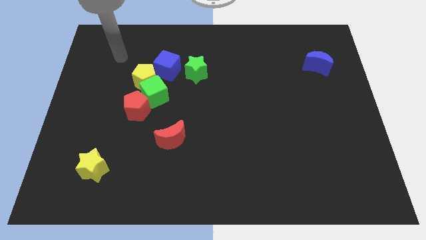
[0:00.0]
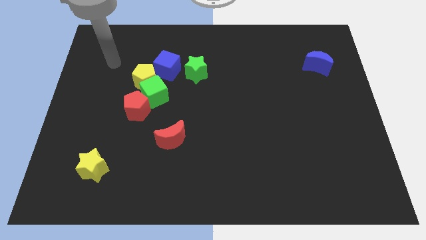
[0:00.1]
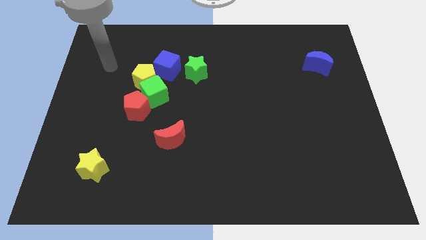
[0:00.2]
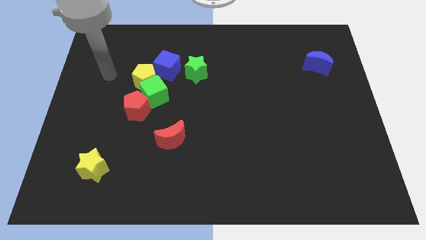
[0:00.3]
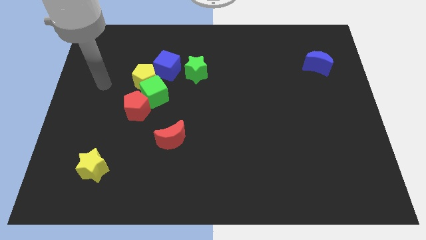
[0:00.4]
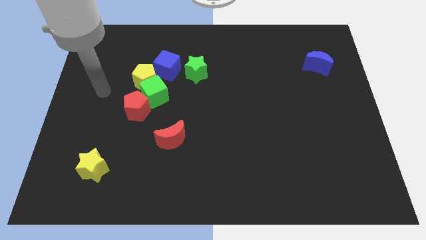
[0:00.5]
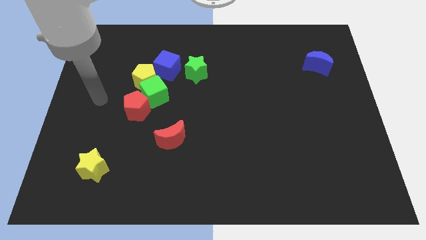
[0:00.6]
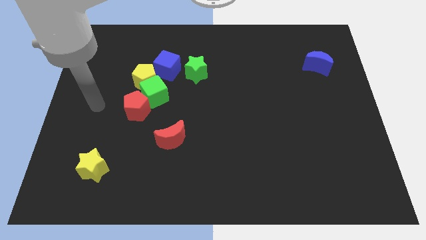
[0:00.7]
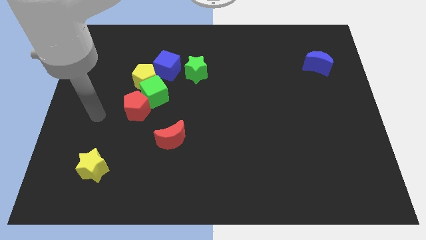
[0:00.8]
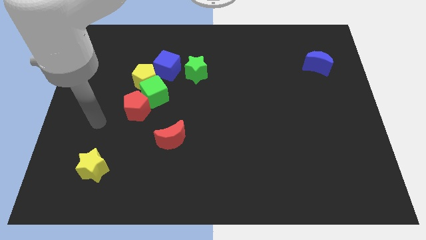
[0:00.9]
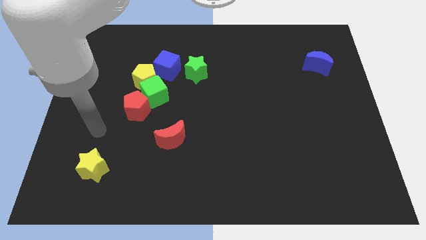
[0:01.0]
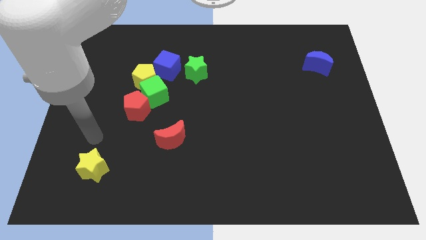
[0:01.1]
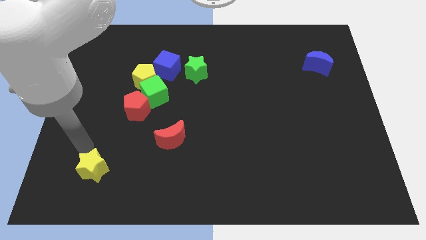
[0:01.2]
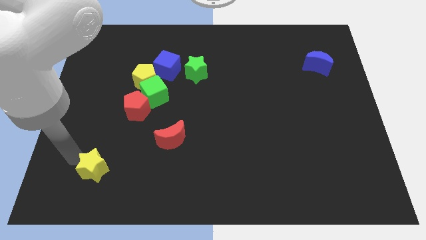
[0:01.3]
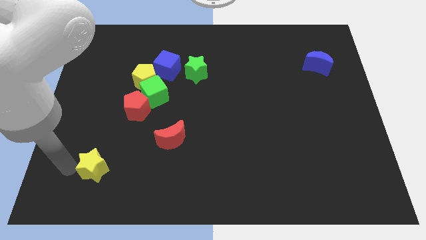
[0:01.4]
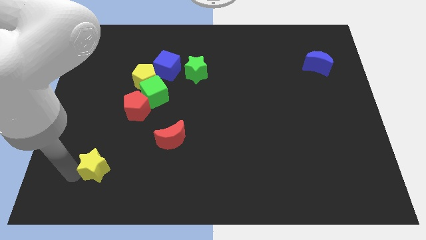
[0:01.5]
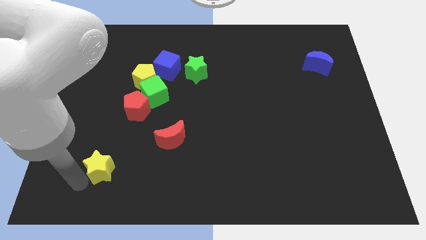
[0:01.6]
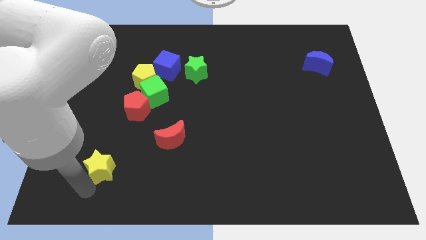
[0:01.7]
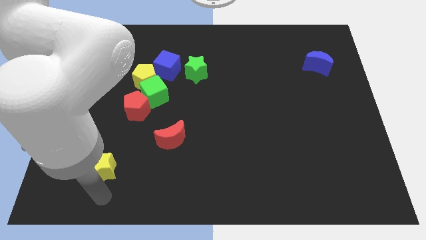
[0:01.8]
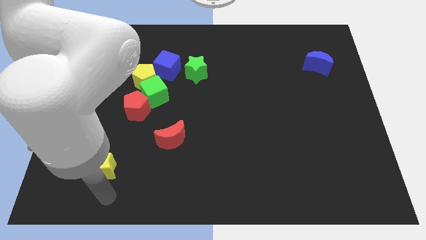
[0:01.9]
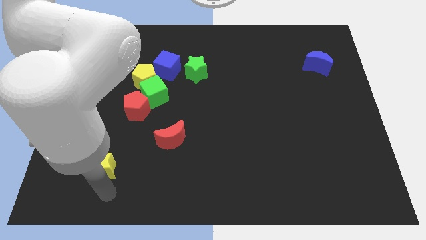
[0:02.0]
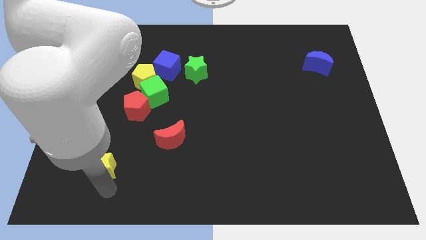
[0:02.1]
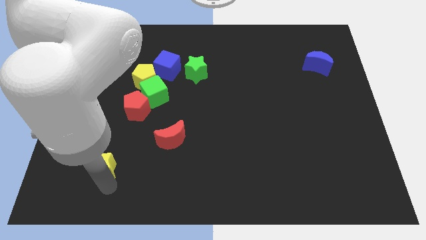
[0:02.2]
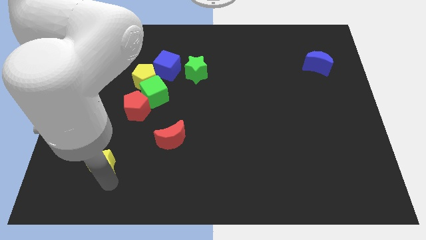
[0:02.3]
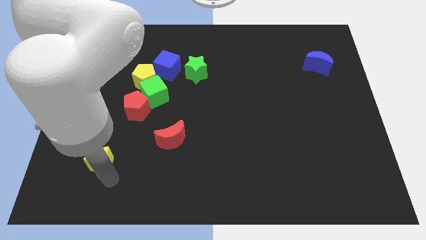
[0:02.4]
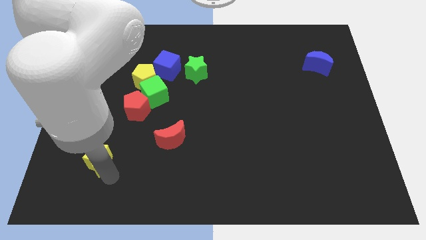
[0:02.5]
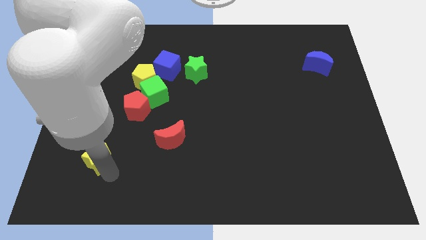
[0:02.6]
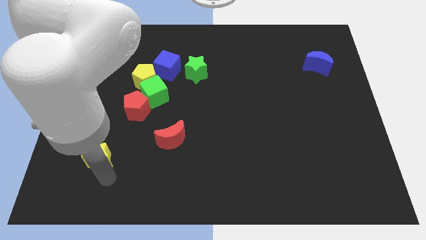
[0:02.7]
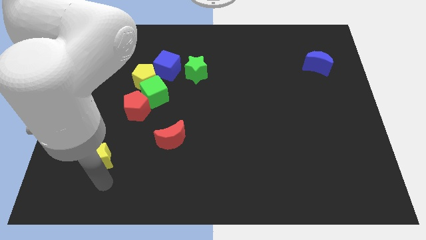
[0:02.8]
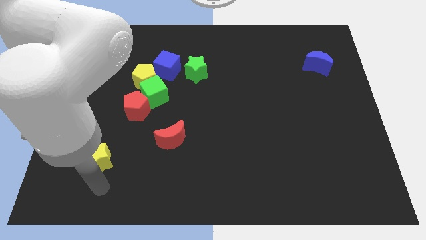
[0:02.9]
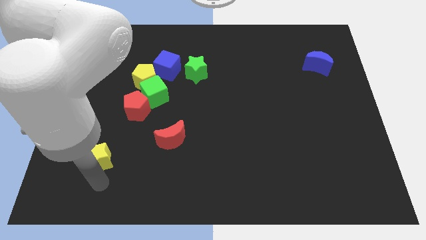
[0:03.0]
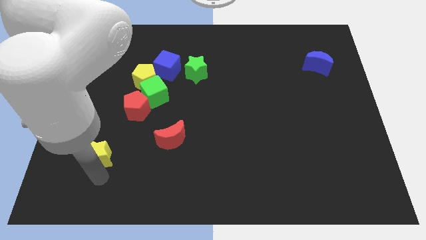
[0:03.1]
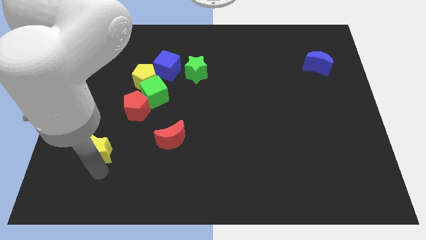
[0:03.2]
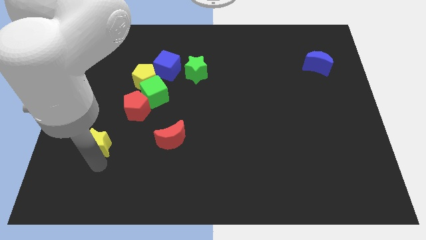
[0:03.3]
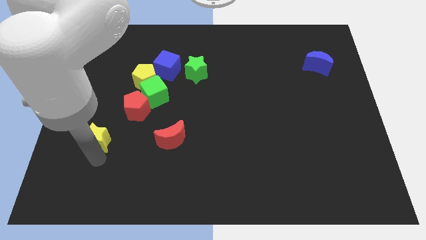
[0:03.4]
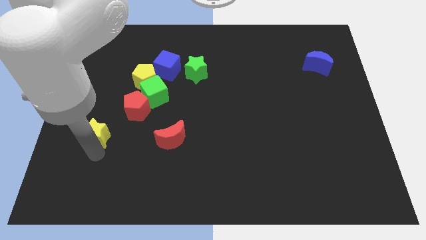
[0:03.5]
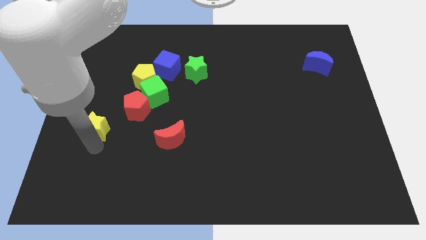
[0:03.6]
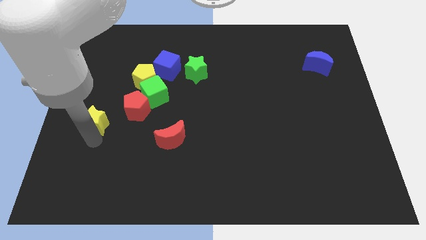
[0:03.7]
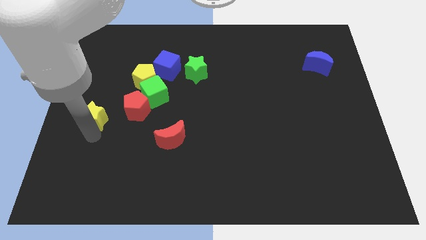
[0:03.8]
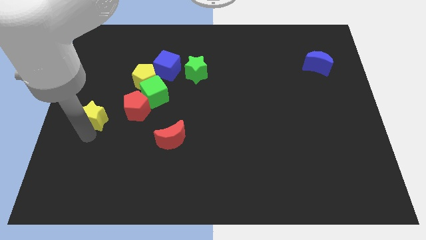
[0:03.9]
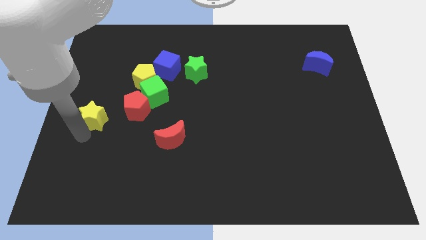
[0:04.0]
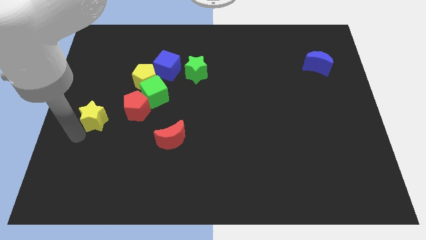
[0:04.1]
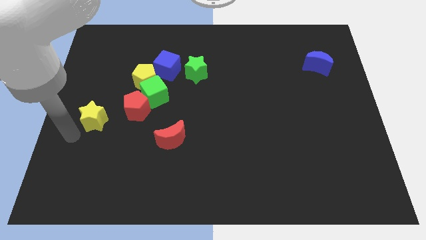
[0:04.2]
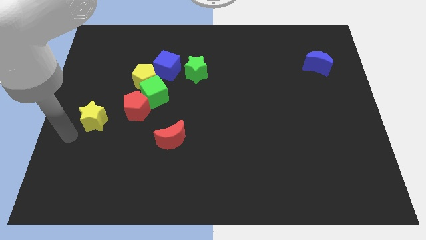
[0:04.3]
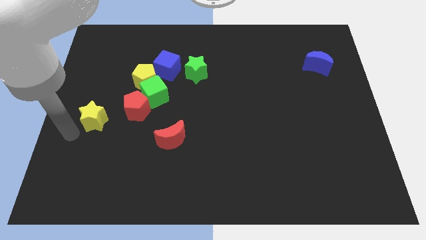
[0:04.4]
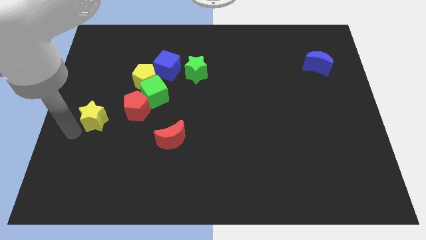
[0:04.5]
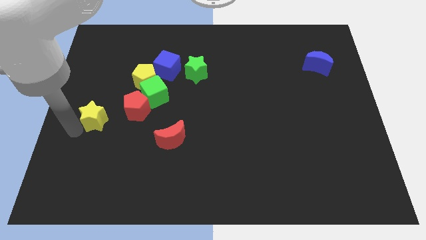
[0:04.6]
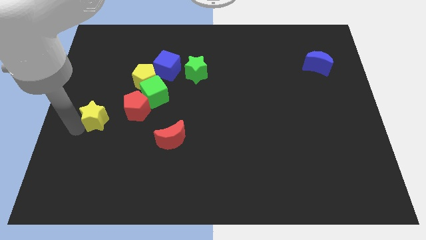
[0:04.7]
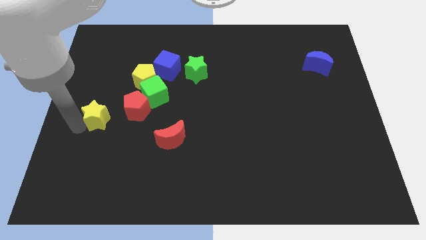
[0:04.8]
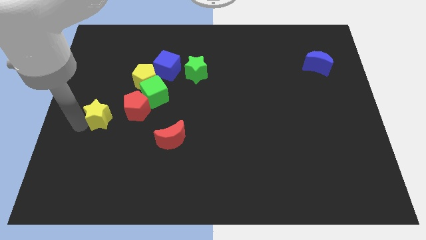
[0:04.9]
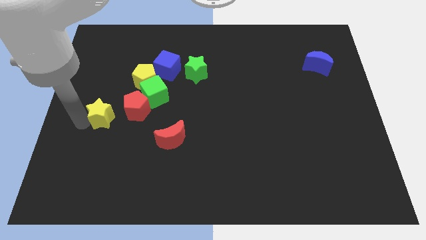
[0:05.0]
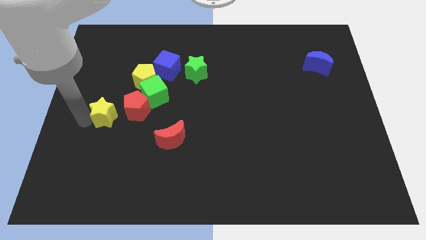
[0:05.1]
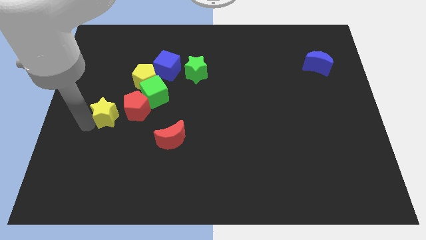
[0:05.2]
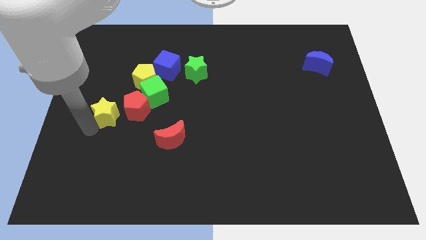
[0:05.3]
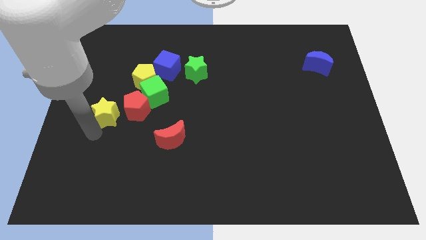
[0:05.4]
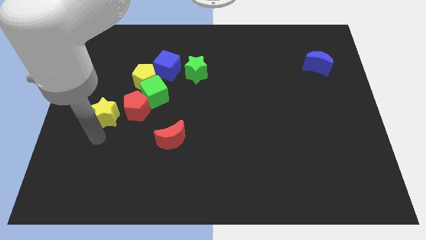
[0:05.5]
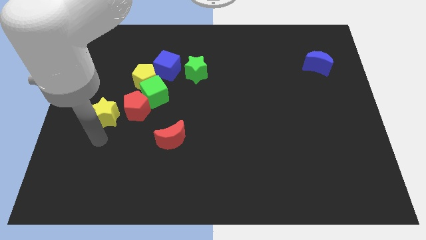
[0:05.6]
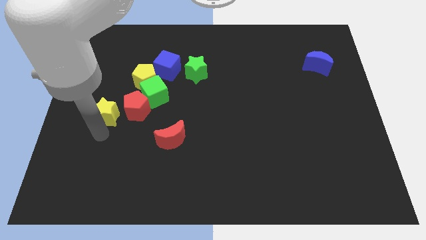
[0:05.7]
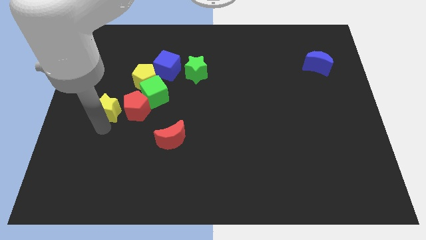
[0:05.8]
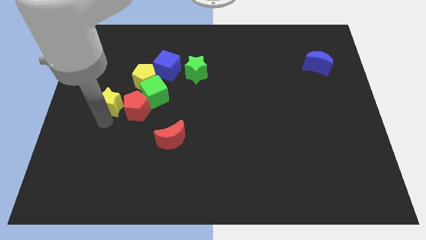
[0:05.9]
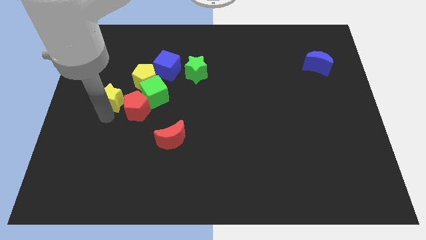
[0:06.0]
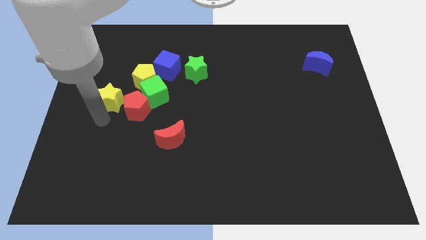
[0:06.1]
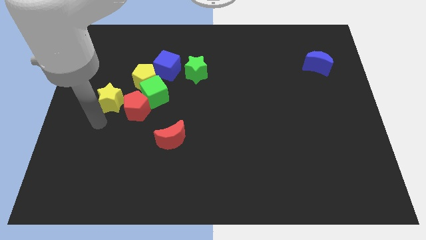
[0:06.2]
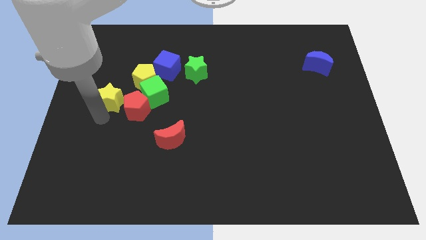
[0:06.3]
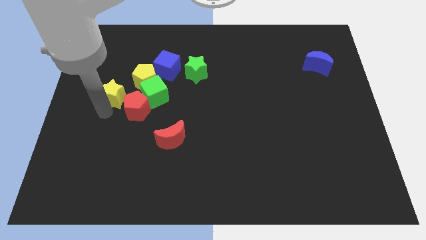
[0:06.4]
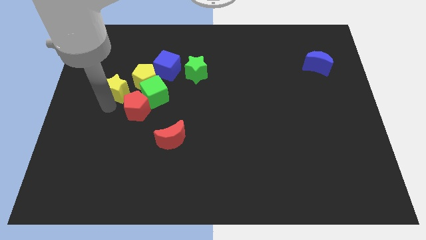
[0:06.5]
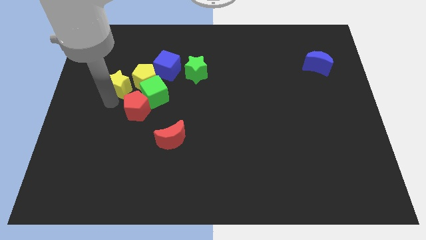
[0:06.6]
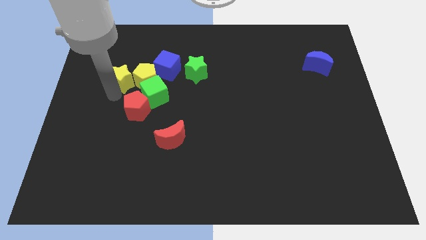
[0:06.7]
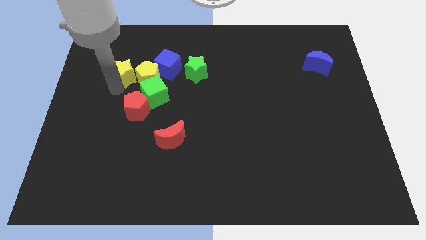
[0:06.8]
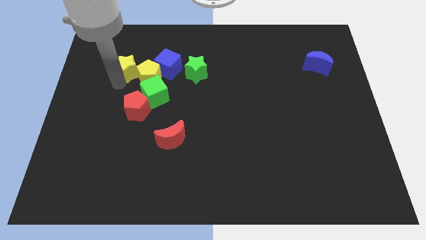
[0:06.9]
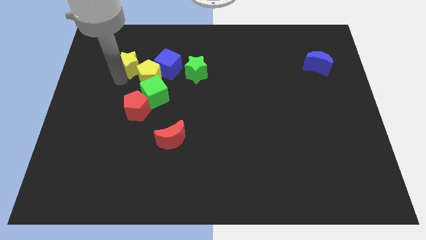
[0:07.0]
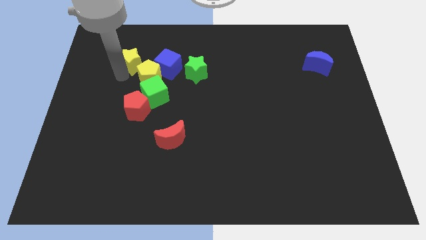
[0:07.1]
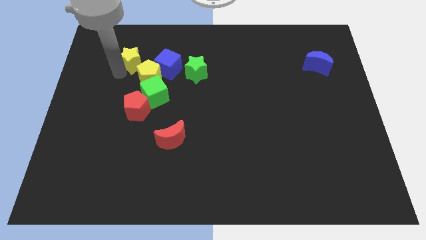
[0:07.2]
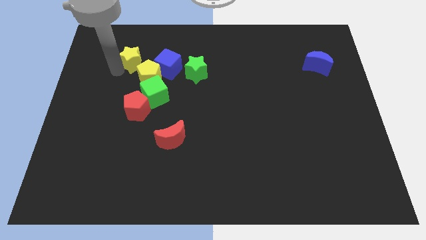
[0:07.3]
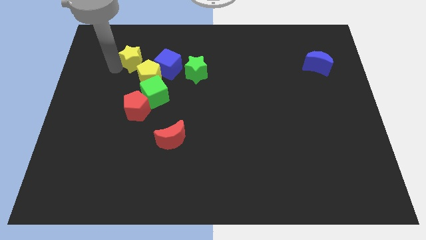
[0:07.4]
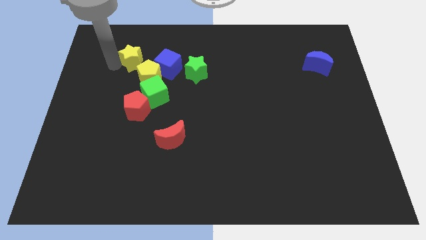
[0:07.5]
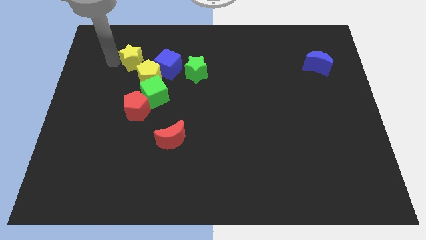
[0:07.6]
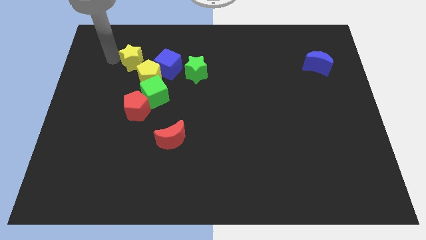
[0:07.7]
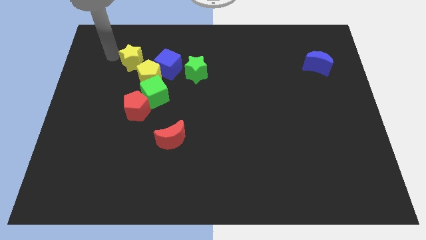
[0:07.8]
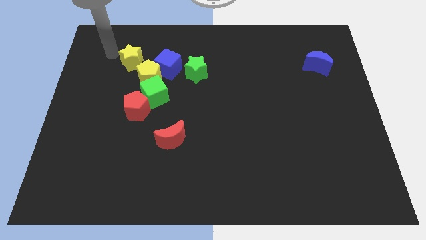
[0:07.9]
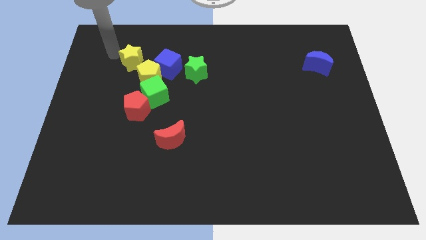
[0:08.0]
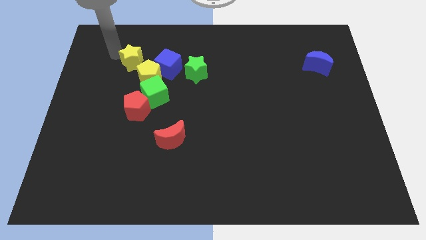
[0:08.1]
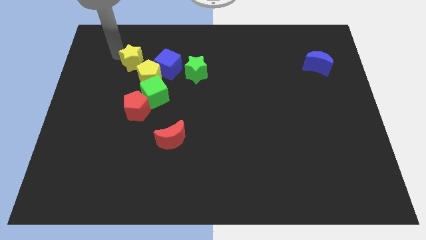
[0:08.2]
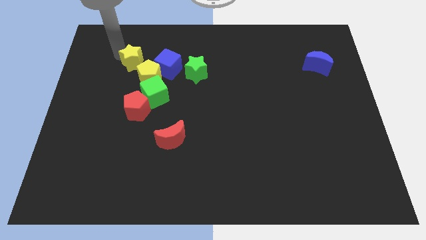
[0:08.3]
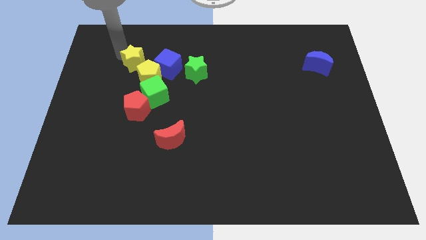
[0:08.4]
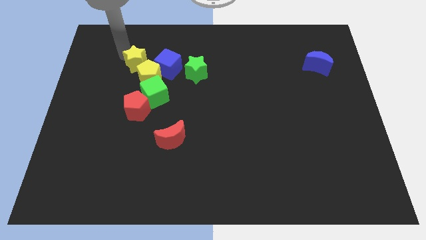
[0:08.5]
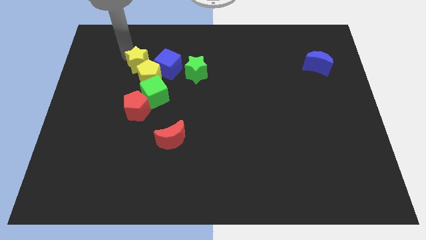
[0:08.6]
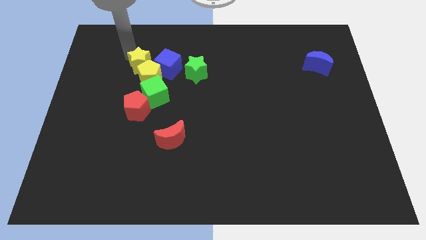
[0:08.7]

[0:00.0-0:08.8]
put the yellow star to the top side of the green cube
